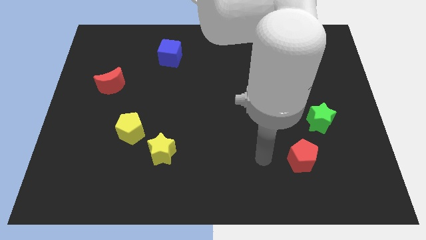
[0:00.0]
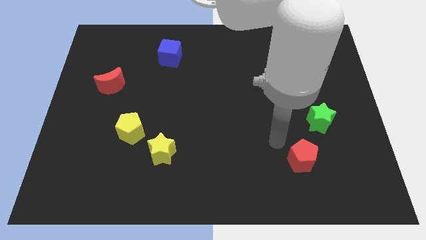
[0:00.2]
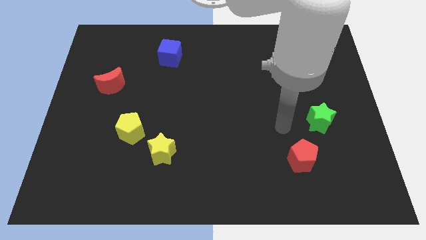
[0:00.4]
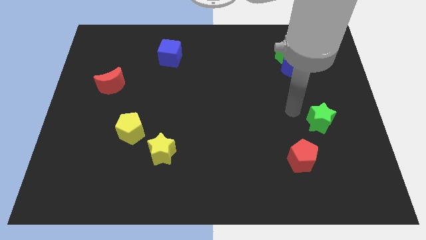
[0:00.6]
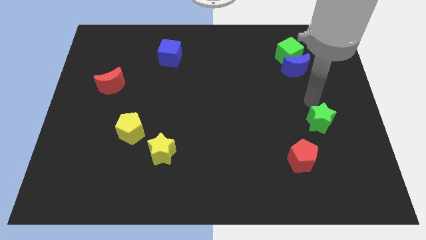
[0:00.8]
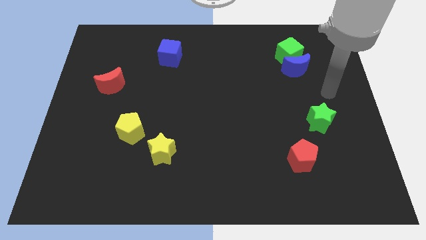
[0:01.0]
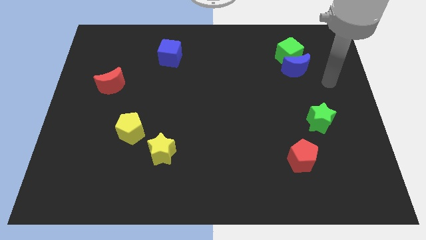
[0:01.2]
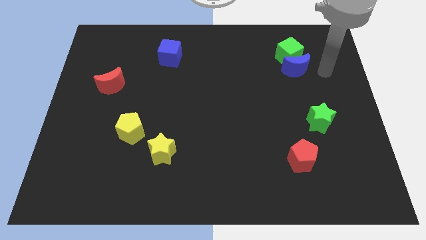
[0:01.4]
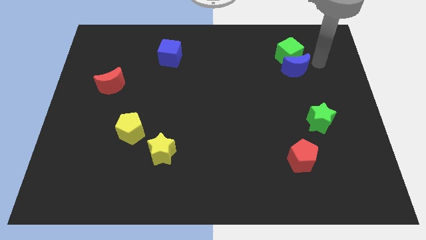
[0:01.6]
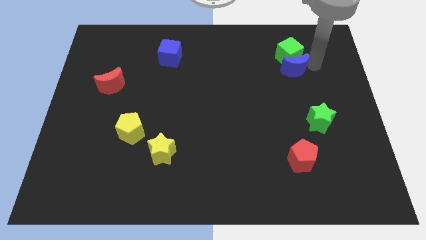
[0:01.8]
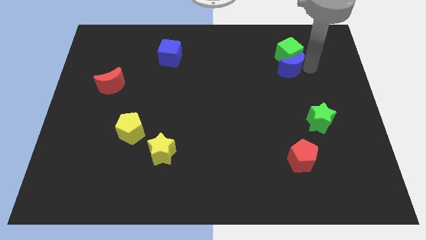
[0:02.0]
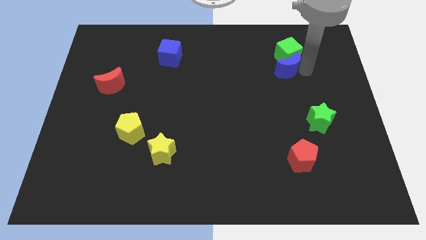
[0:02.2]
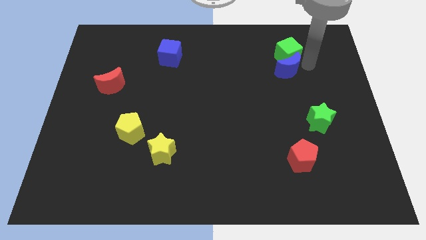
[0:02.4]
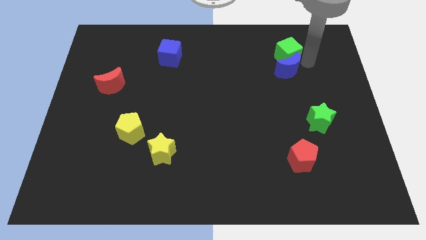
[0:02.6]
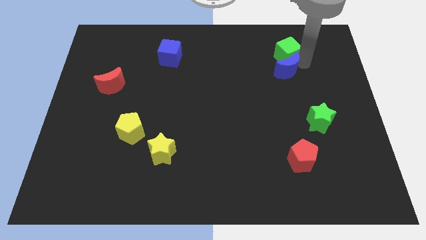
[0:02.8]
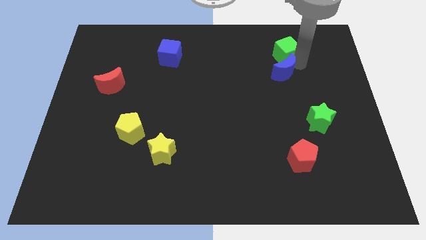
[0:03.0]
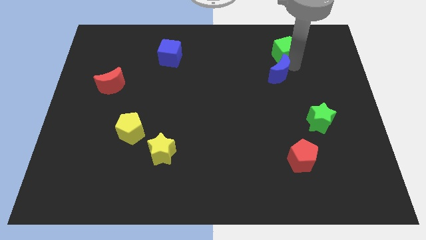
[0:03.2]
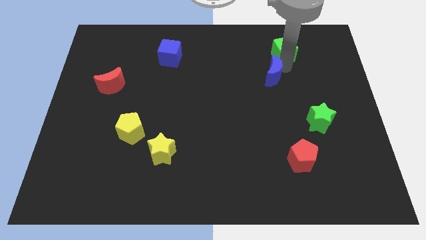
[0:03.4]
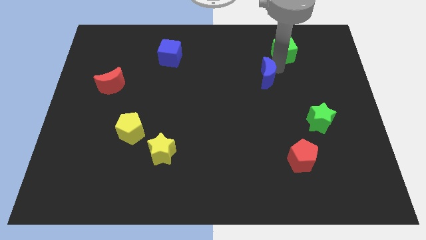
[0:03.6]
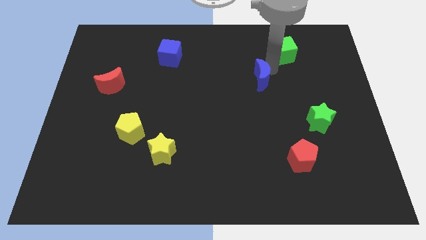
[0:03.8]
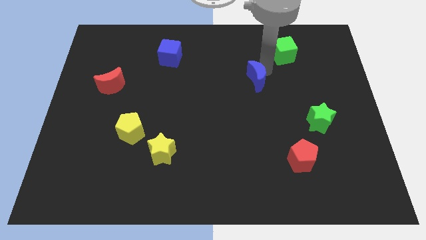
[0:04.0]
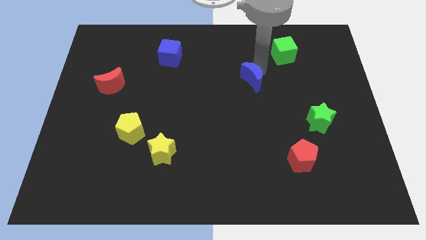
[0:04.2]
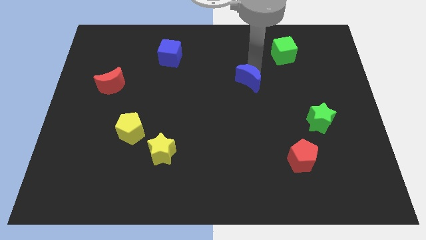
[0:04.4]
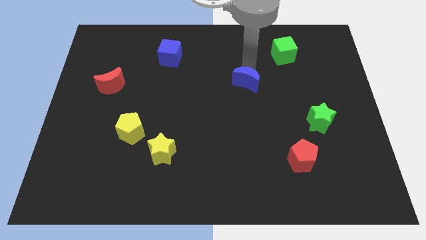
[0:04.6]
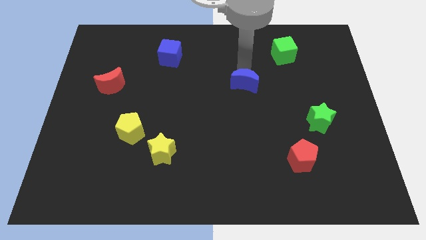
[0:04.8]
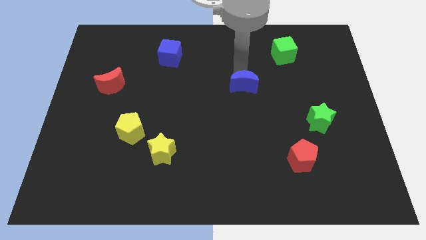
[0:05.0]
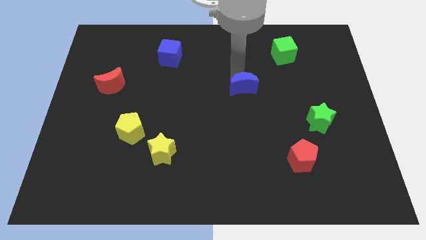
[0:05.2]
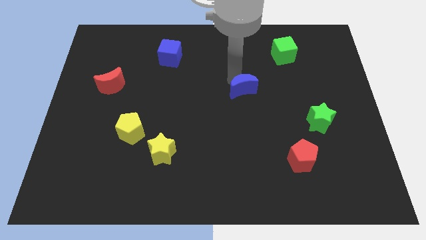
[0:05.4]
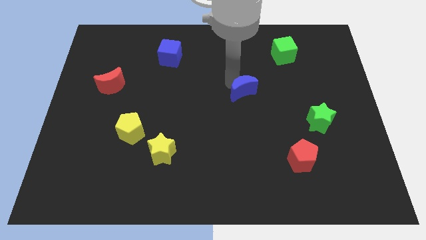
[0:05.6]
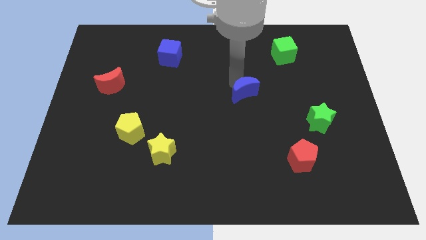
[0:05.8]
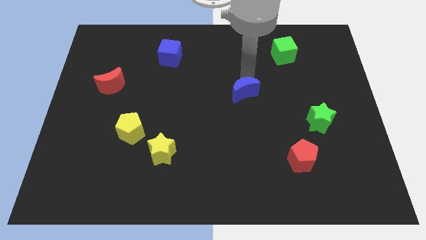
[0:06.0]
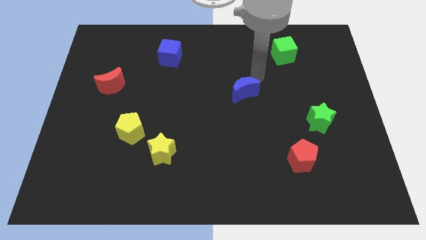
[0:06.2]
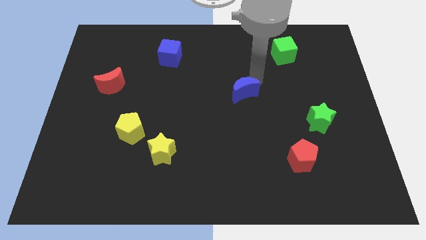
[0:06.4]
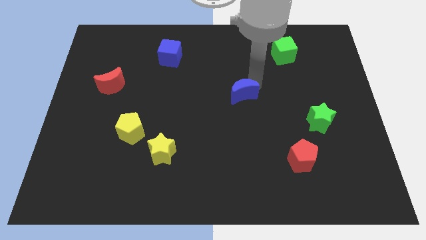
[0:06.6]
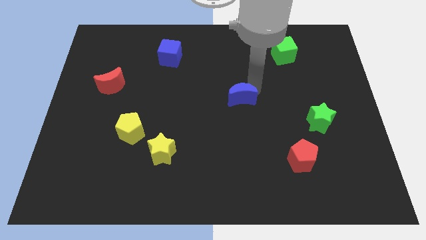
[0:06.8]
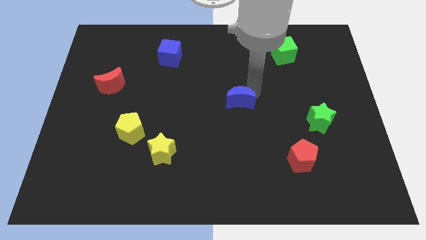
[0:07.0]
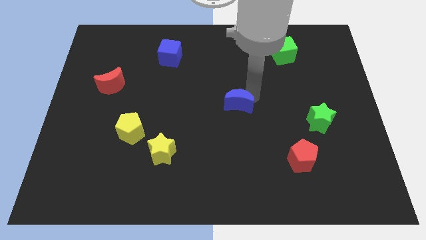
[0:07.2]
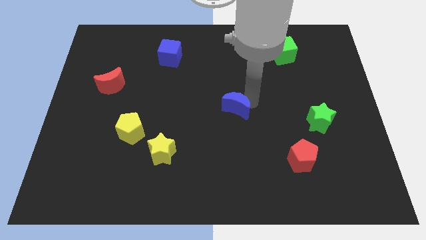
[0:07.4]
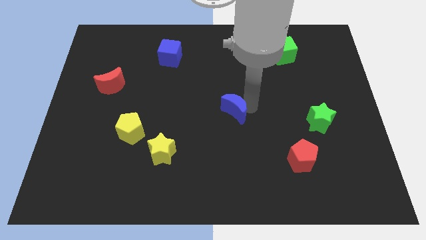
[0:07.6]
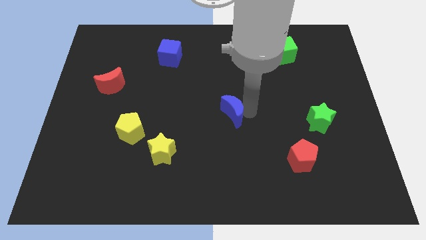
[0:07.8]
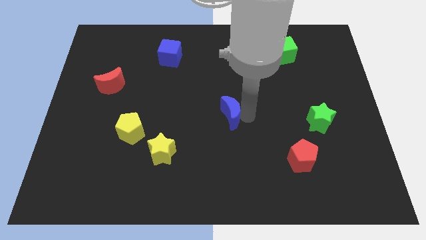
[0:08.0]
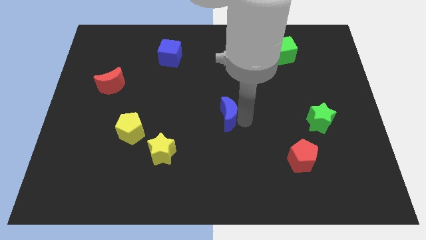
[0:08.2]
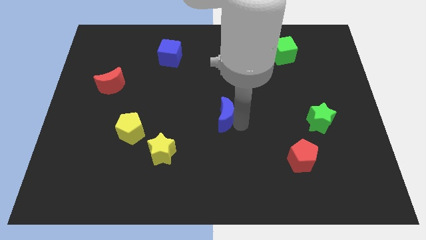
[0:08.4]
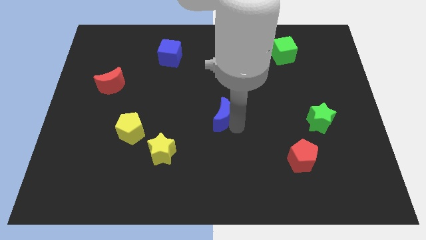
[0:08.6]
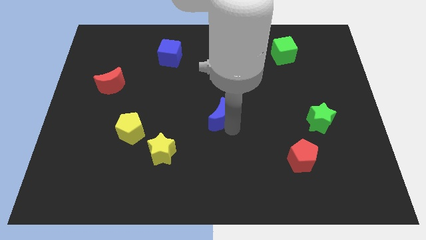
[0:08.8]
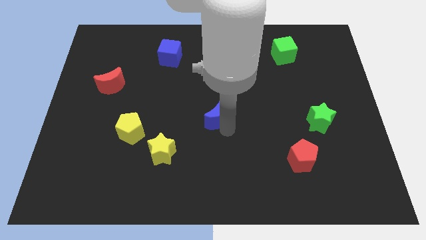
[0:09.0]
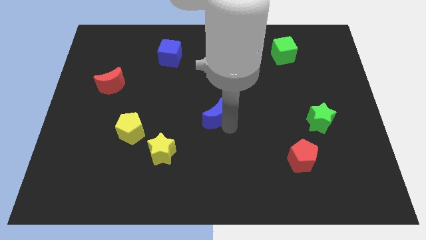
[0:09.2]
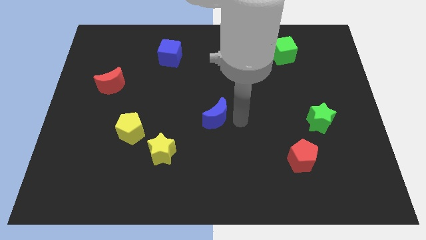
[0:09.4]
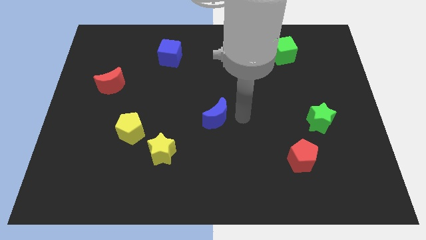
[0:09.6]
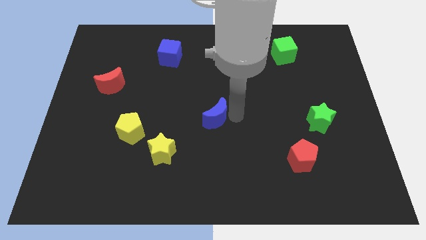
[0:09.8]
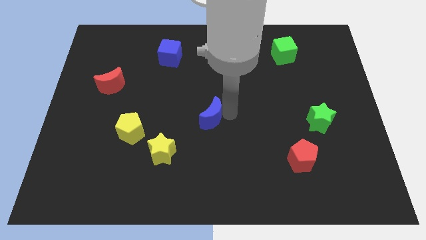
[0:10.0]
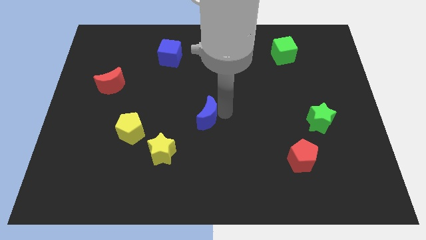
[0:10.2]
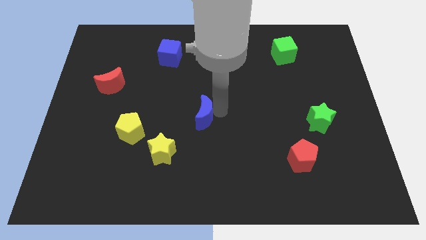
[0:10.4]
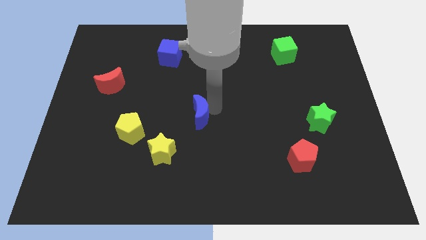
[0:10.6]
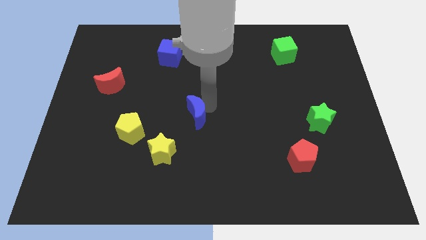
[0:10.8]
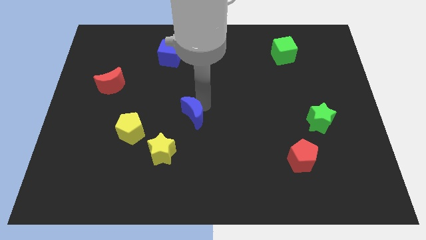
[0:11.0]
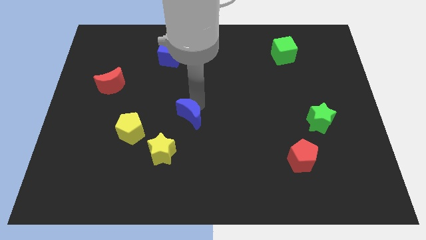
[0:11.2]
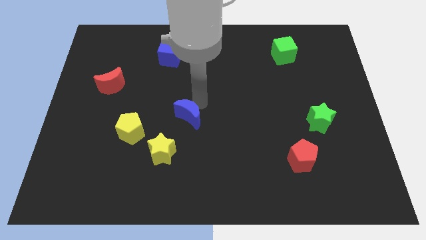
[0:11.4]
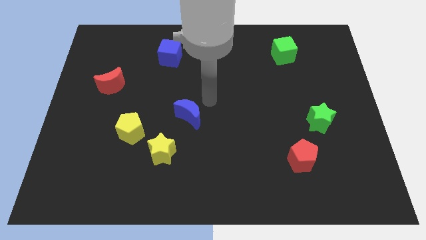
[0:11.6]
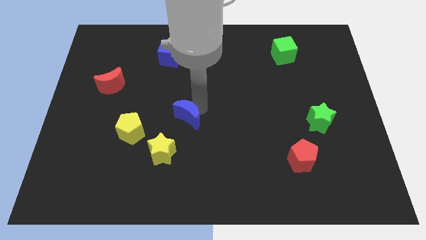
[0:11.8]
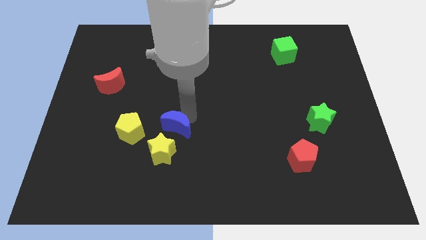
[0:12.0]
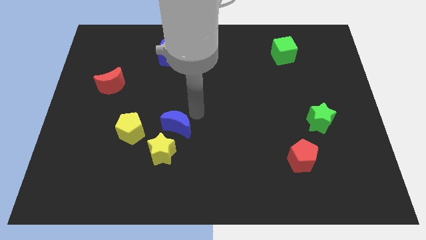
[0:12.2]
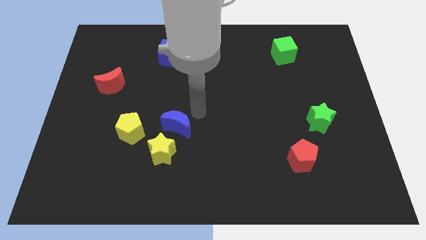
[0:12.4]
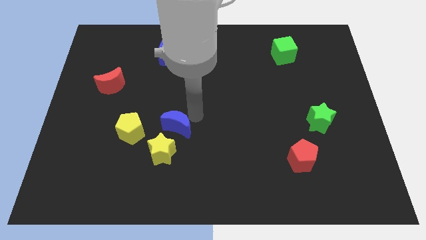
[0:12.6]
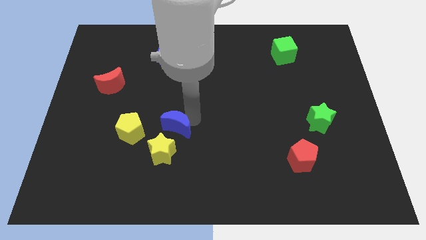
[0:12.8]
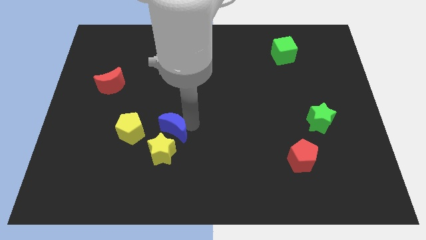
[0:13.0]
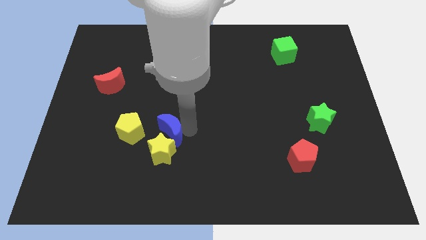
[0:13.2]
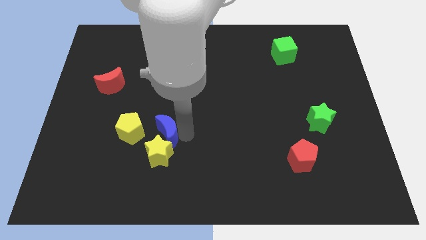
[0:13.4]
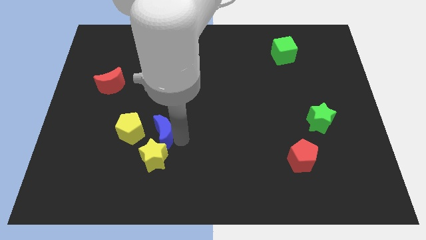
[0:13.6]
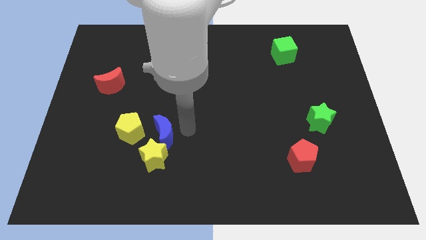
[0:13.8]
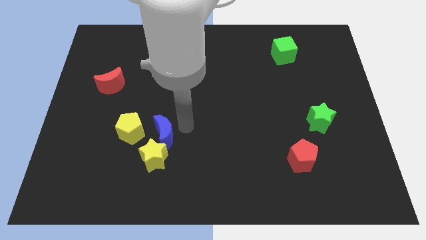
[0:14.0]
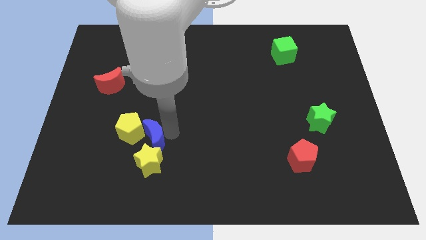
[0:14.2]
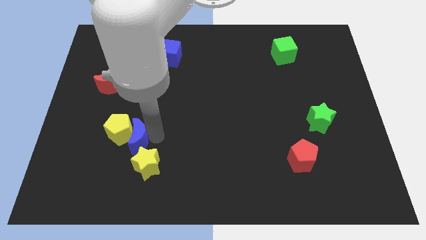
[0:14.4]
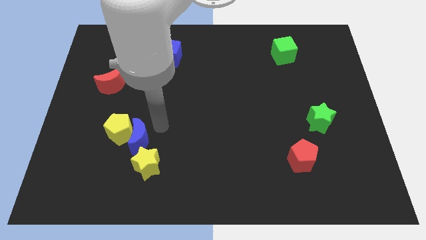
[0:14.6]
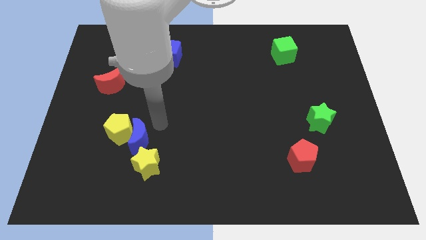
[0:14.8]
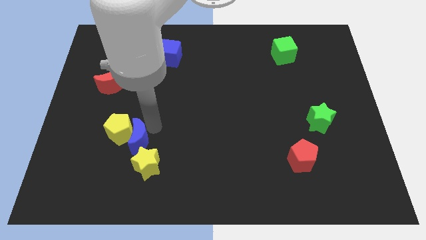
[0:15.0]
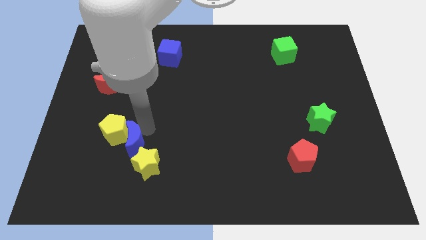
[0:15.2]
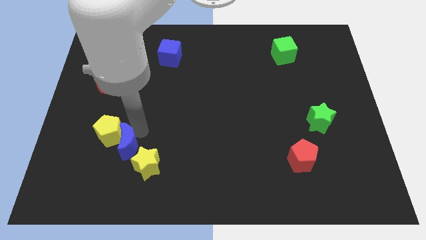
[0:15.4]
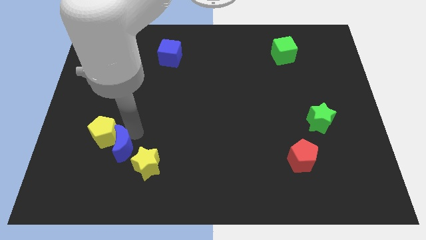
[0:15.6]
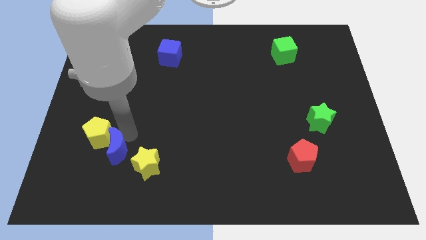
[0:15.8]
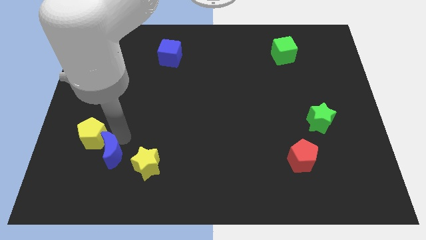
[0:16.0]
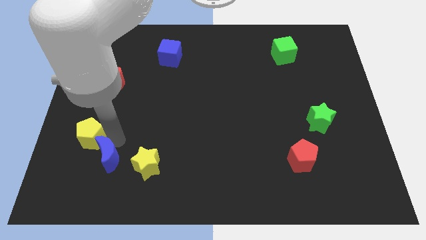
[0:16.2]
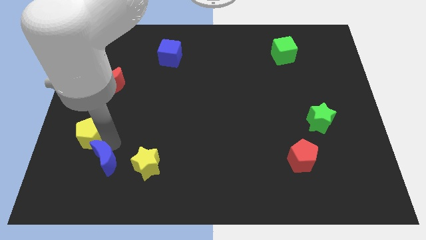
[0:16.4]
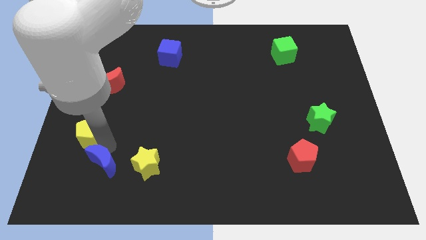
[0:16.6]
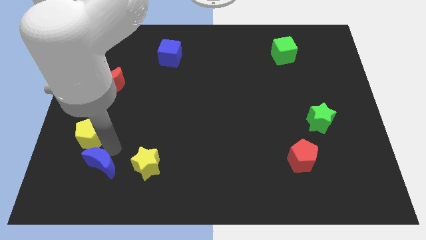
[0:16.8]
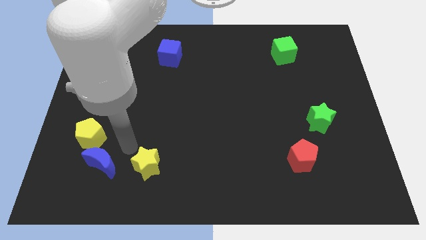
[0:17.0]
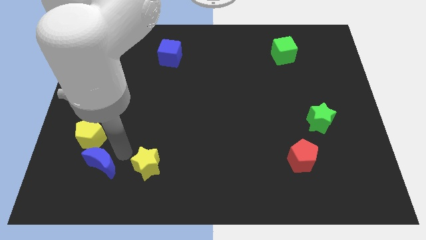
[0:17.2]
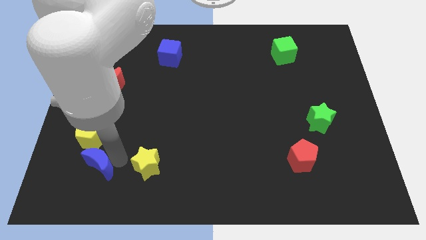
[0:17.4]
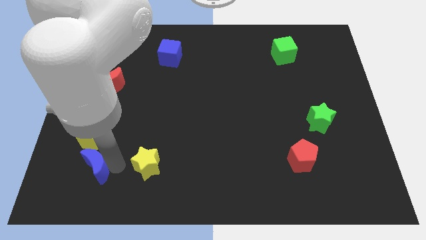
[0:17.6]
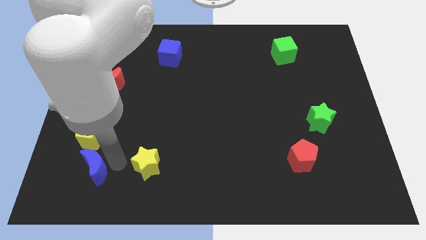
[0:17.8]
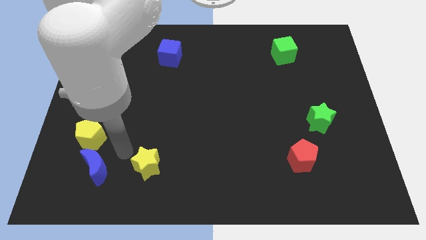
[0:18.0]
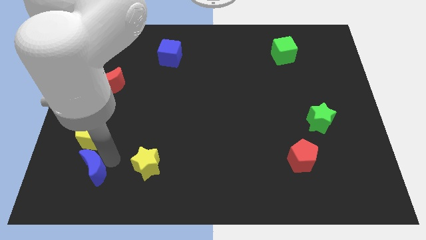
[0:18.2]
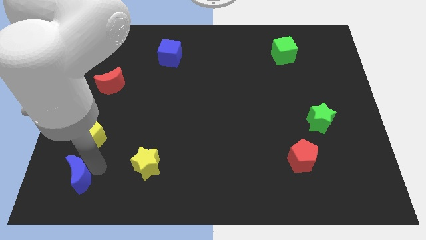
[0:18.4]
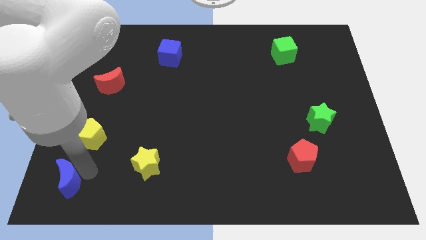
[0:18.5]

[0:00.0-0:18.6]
slide the blue moon to the bottom left corner
